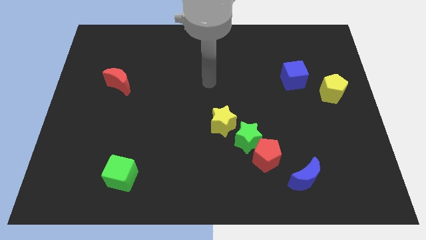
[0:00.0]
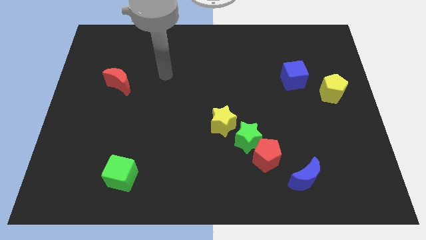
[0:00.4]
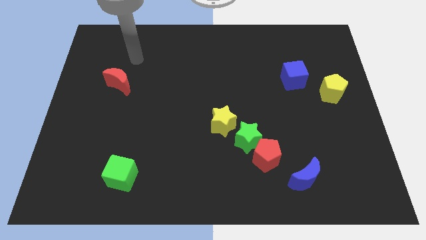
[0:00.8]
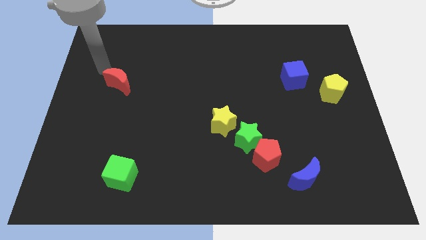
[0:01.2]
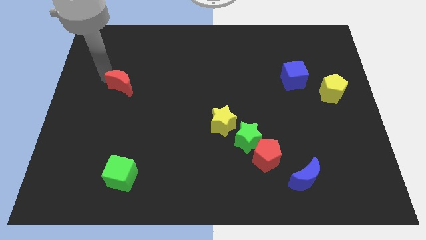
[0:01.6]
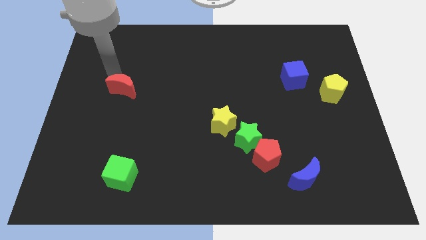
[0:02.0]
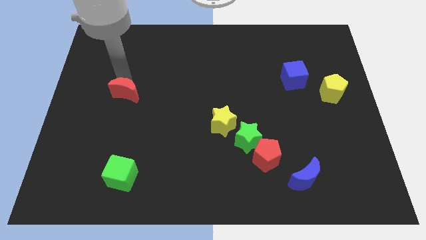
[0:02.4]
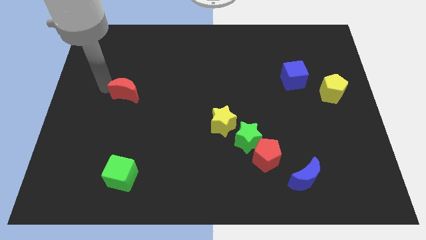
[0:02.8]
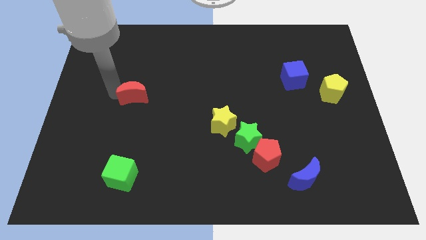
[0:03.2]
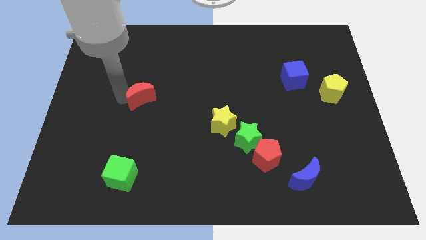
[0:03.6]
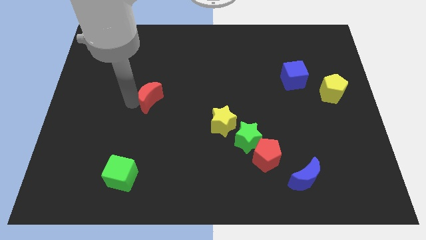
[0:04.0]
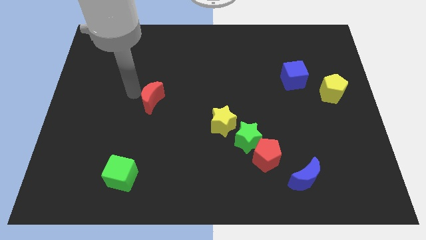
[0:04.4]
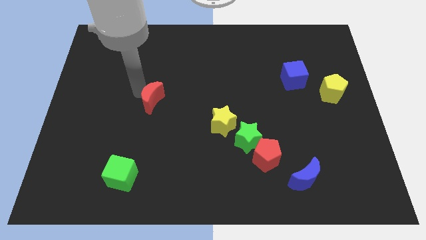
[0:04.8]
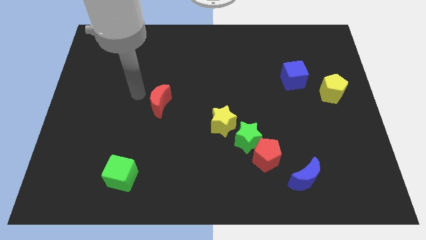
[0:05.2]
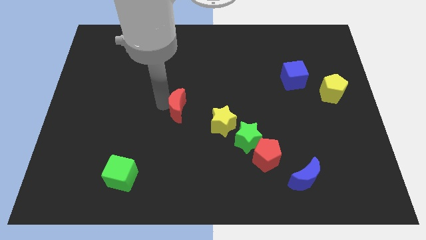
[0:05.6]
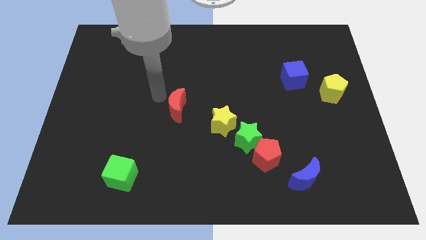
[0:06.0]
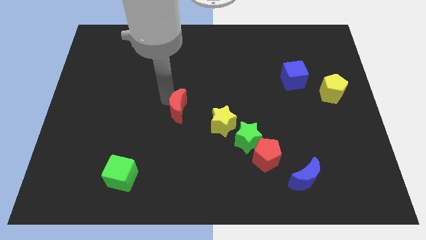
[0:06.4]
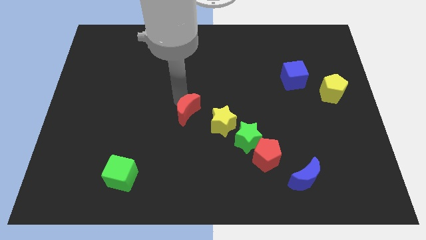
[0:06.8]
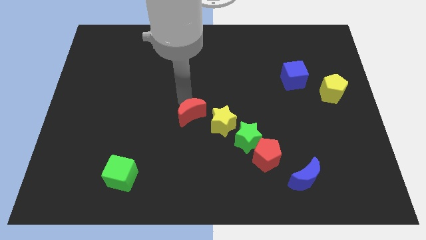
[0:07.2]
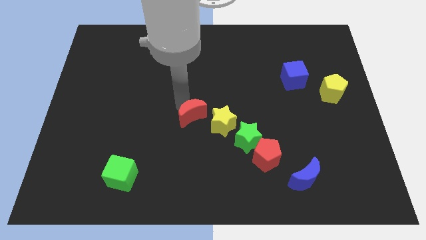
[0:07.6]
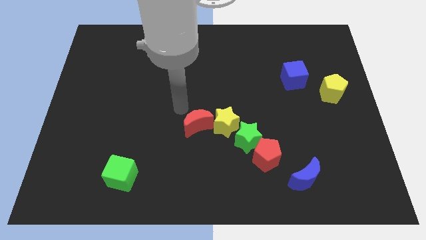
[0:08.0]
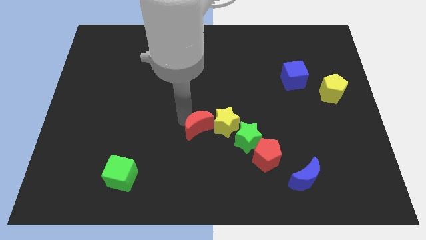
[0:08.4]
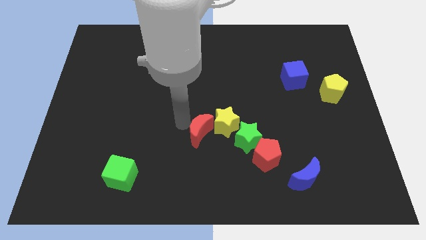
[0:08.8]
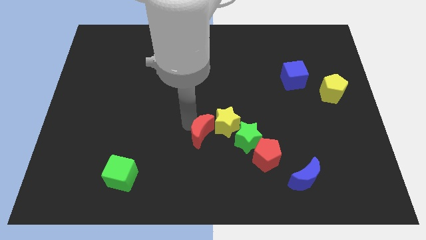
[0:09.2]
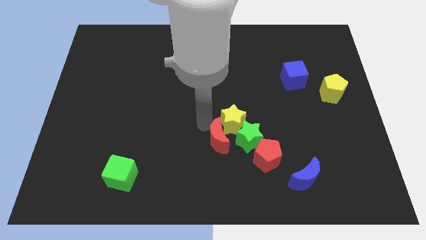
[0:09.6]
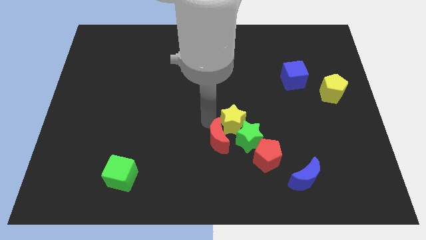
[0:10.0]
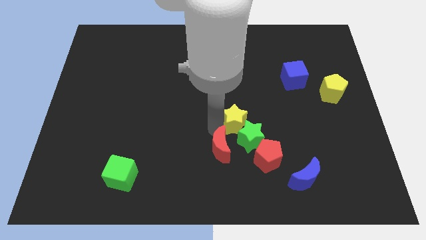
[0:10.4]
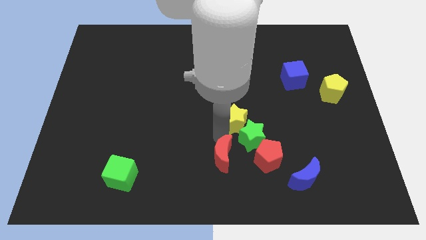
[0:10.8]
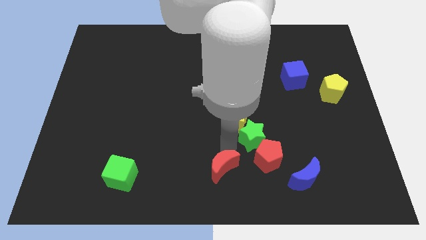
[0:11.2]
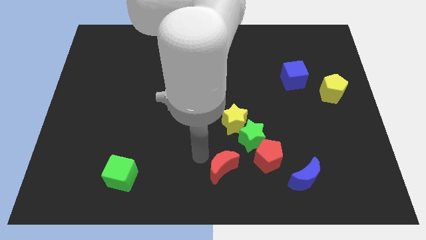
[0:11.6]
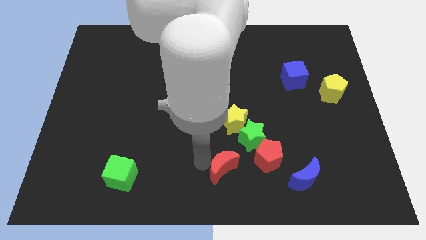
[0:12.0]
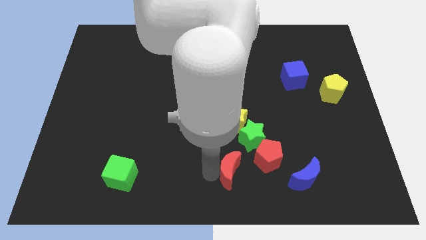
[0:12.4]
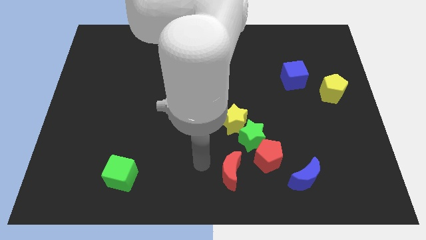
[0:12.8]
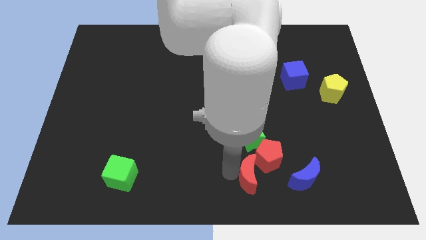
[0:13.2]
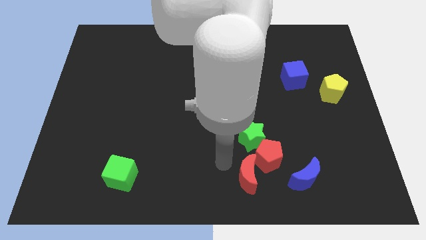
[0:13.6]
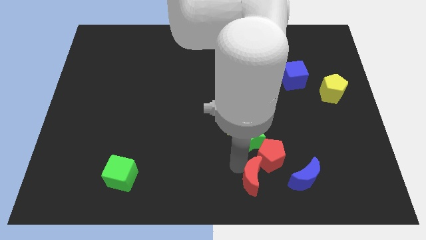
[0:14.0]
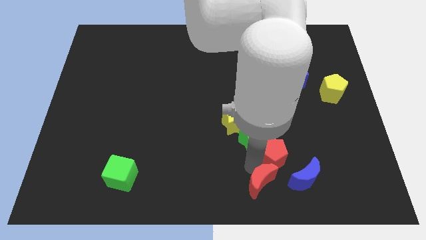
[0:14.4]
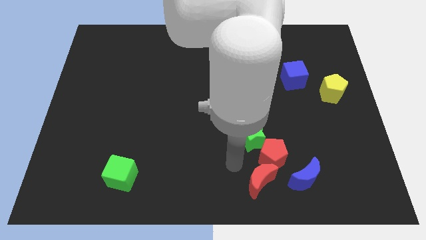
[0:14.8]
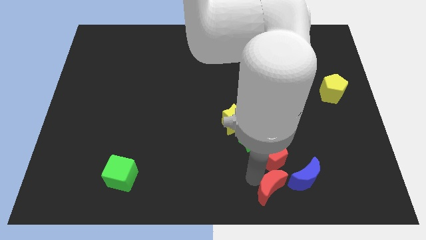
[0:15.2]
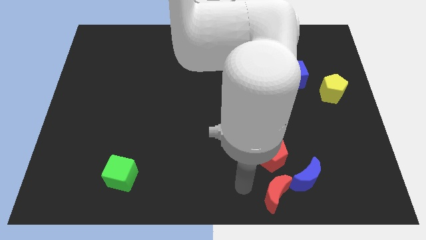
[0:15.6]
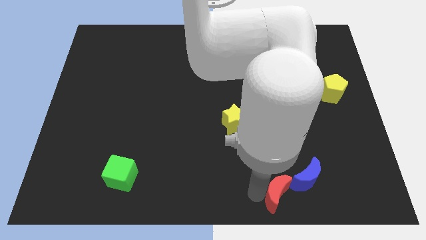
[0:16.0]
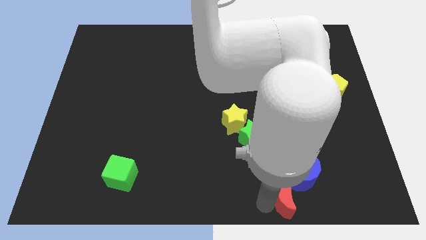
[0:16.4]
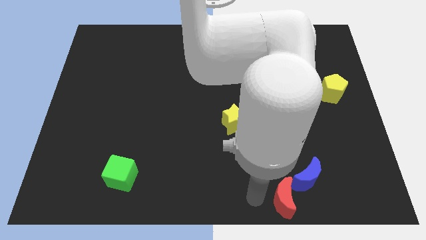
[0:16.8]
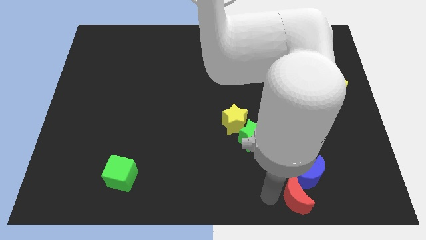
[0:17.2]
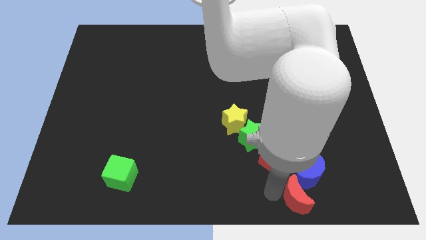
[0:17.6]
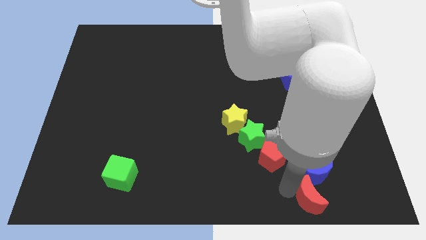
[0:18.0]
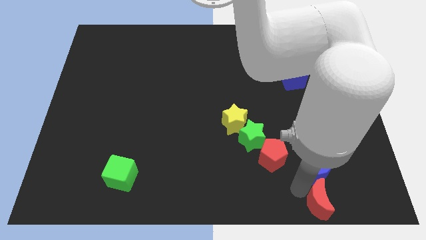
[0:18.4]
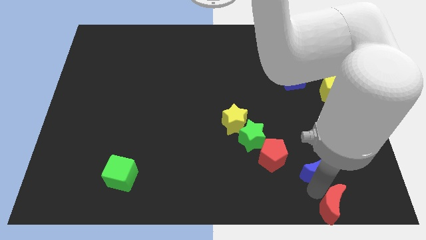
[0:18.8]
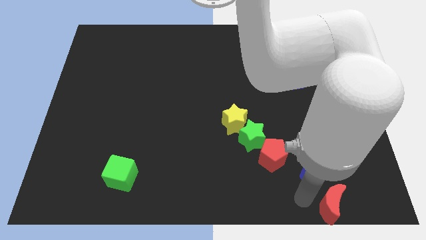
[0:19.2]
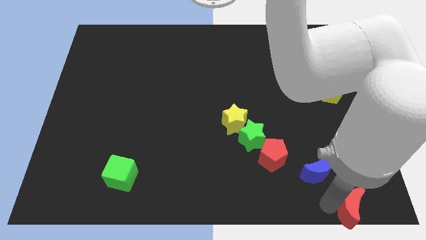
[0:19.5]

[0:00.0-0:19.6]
put the red moon to the bottom right of the board

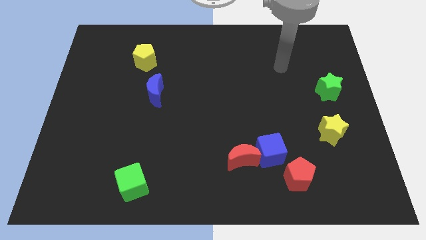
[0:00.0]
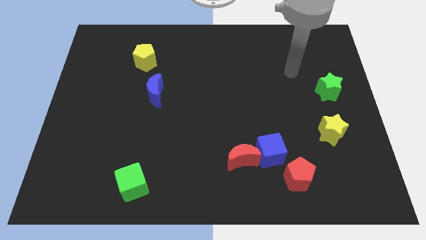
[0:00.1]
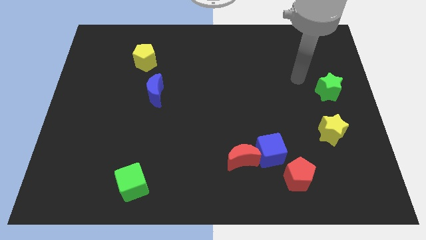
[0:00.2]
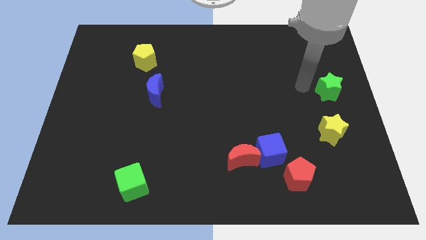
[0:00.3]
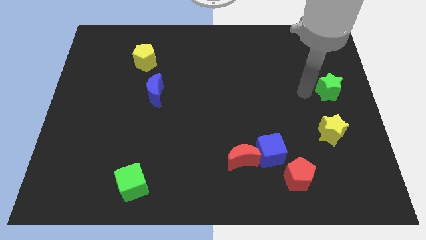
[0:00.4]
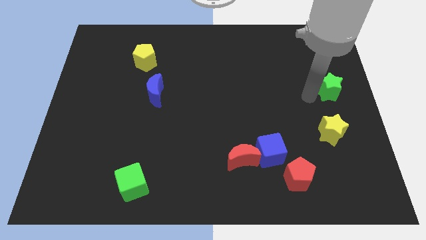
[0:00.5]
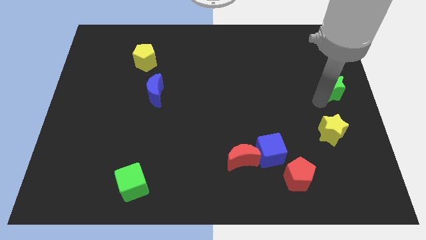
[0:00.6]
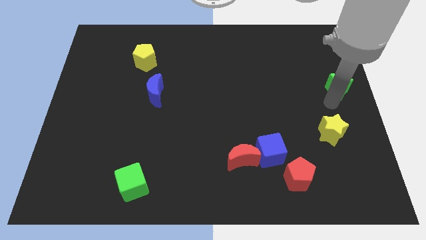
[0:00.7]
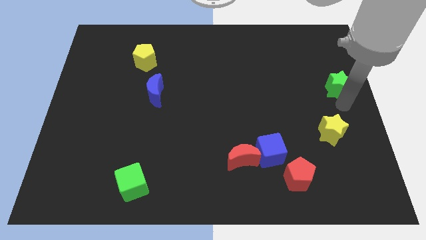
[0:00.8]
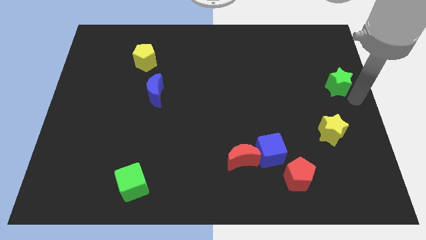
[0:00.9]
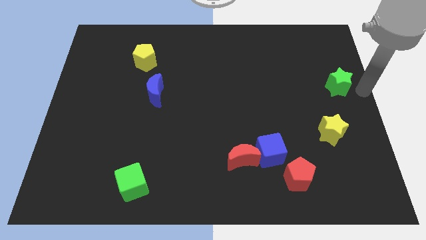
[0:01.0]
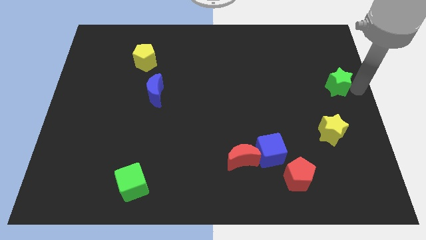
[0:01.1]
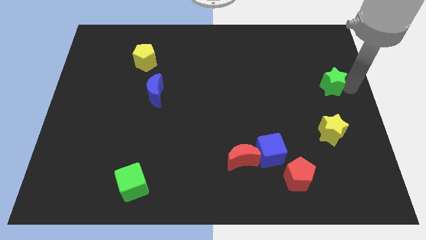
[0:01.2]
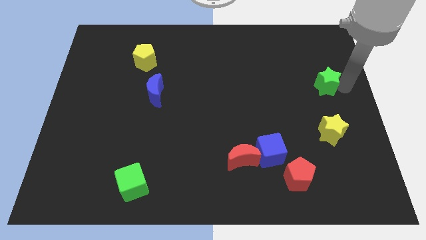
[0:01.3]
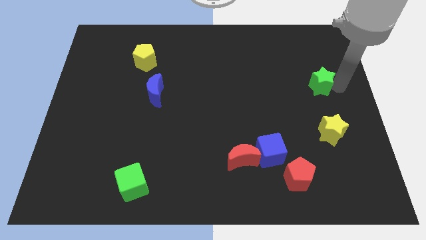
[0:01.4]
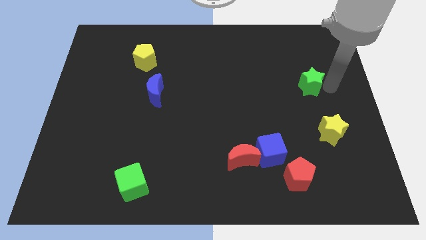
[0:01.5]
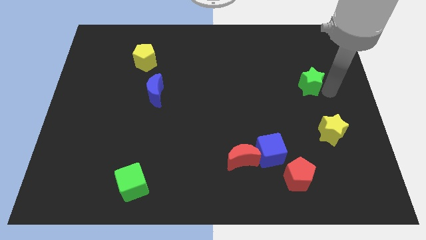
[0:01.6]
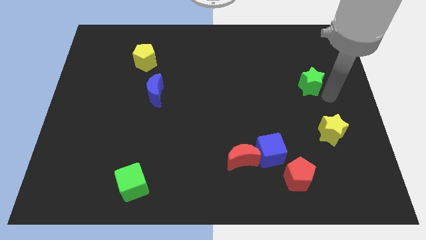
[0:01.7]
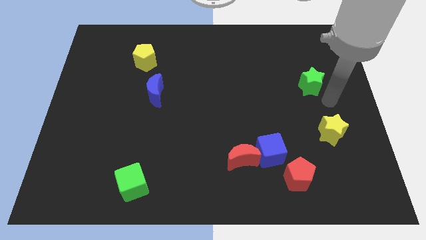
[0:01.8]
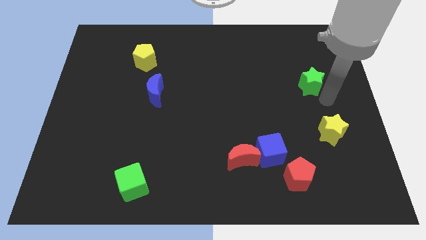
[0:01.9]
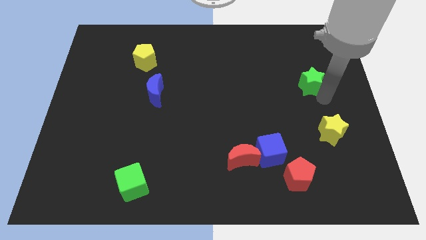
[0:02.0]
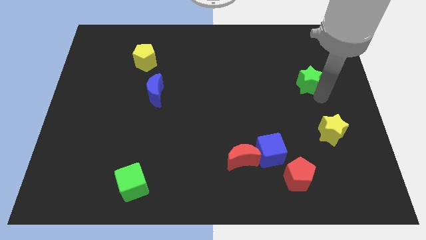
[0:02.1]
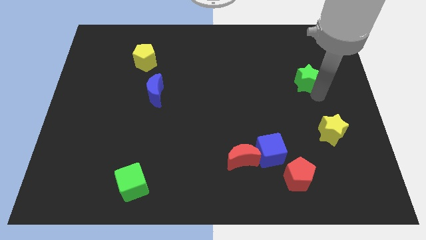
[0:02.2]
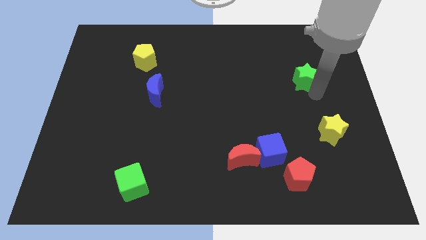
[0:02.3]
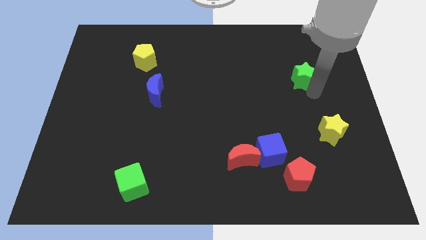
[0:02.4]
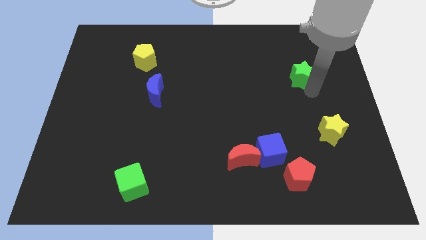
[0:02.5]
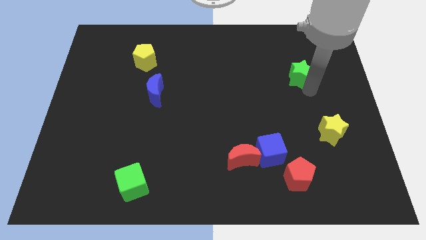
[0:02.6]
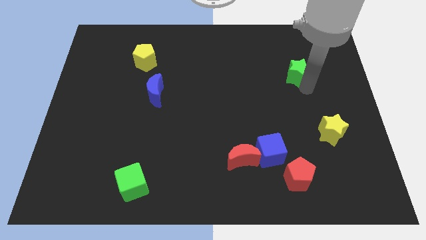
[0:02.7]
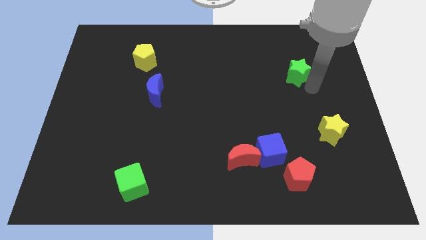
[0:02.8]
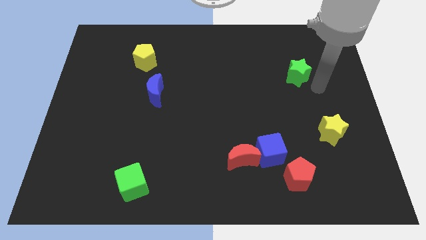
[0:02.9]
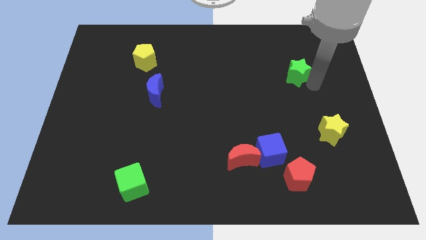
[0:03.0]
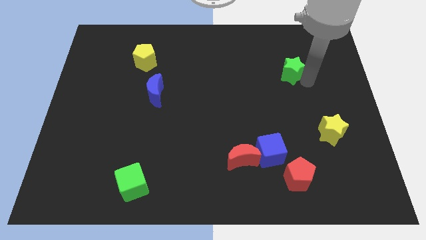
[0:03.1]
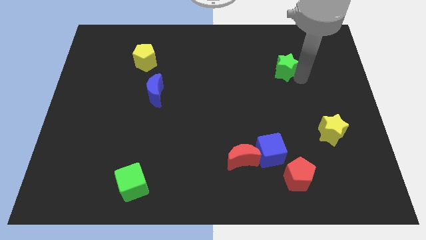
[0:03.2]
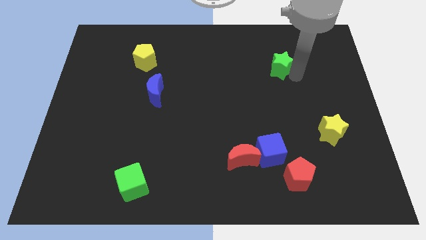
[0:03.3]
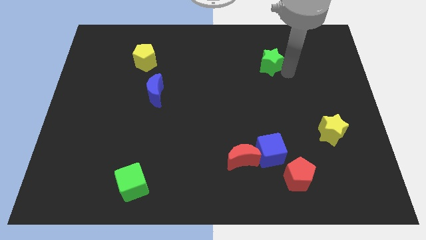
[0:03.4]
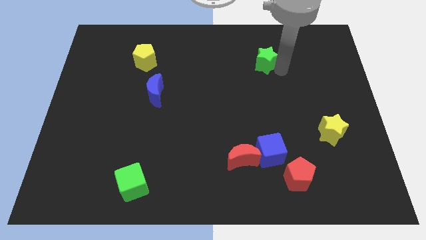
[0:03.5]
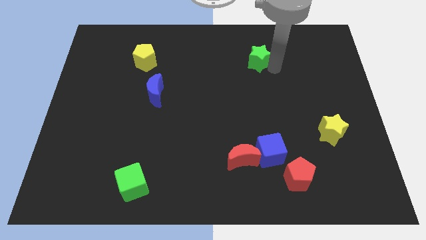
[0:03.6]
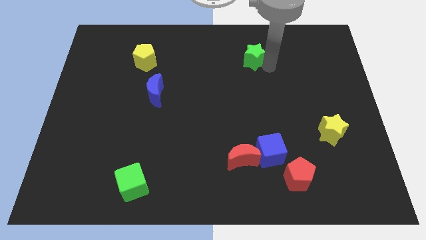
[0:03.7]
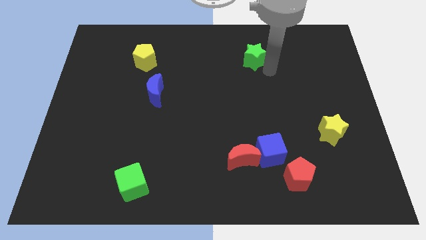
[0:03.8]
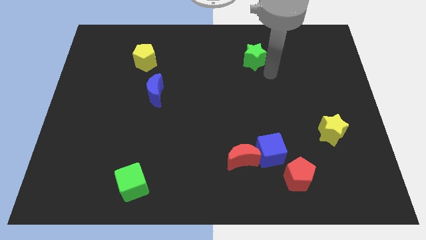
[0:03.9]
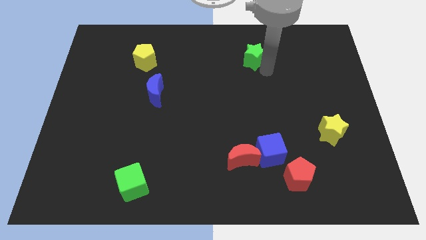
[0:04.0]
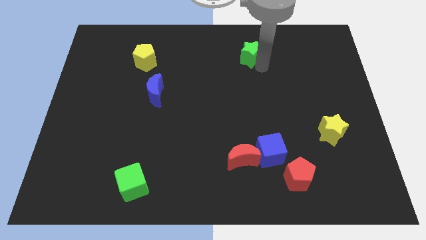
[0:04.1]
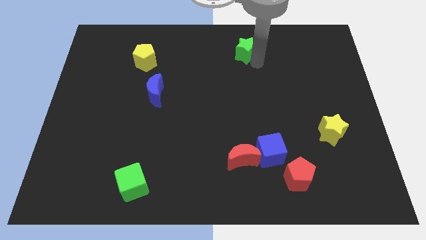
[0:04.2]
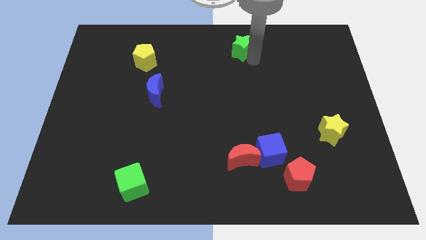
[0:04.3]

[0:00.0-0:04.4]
push the green star to the towards your base
